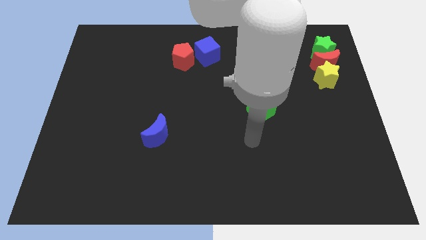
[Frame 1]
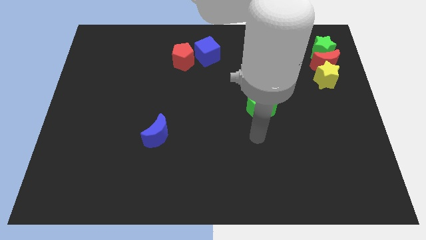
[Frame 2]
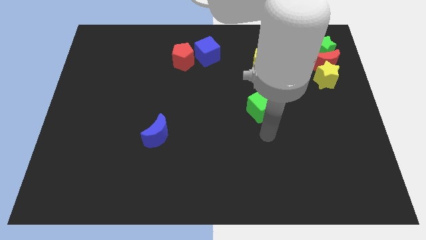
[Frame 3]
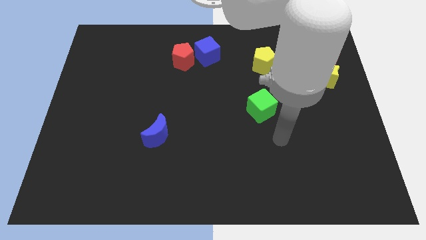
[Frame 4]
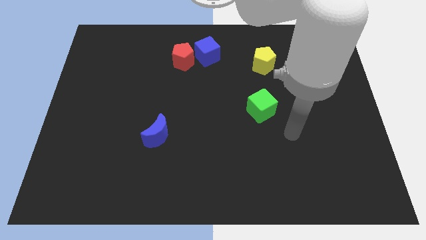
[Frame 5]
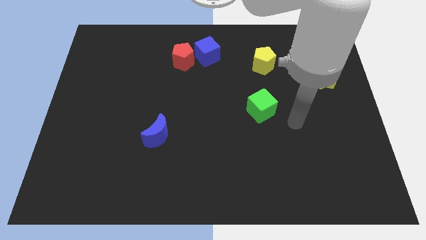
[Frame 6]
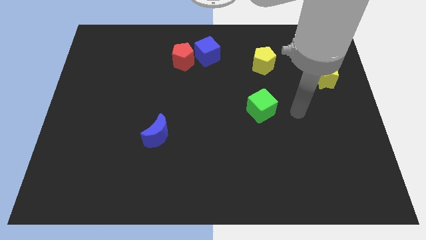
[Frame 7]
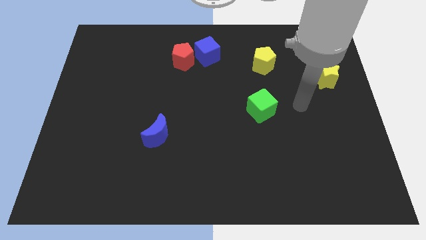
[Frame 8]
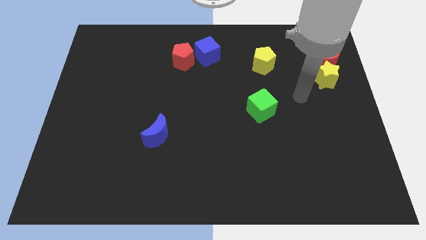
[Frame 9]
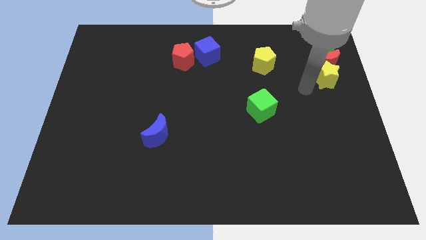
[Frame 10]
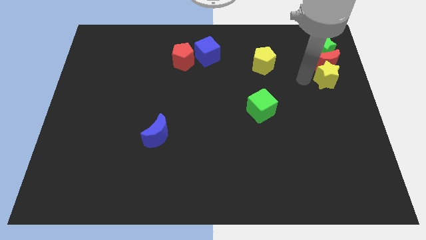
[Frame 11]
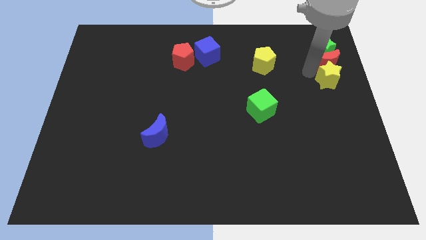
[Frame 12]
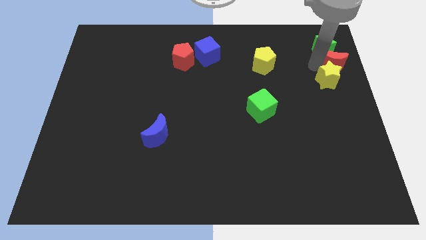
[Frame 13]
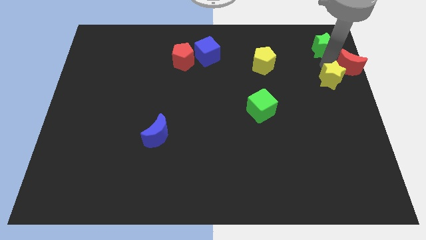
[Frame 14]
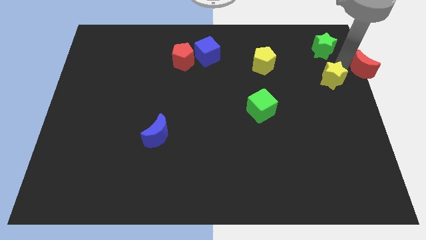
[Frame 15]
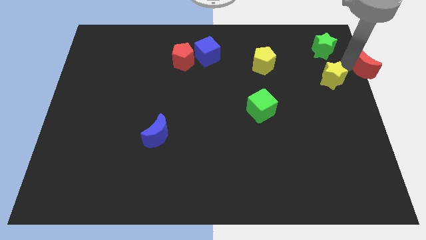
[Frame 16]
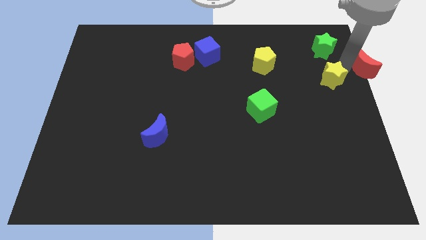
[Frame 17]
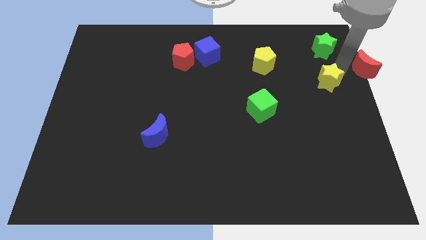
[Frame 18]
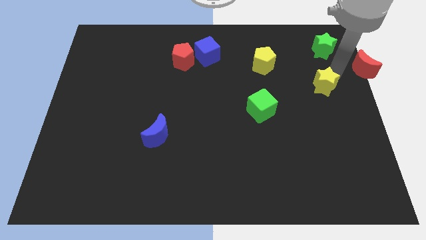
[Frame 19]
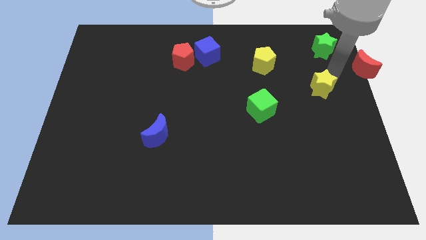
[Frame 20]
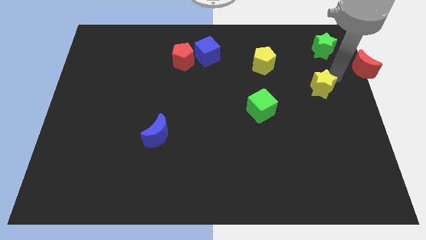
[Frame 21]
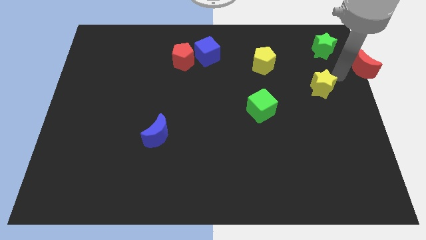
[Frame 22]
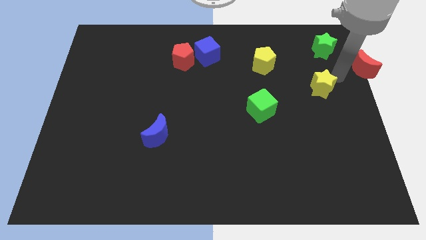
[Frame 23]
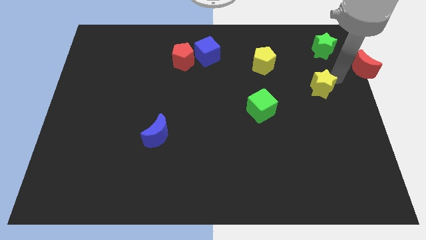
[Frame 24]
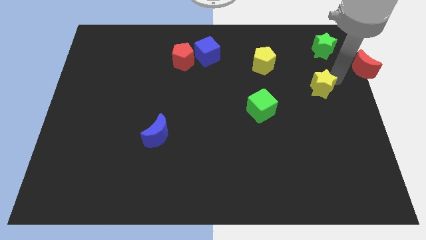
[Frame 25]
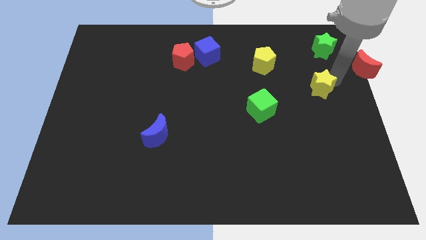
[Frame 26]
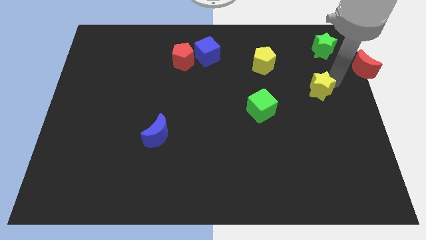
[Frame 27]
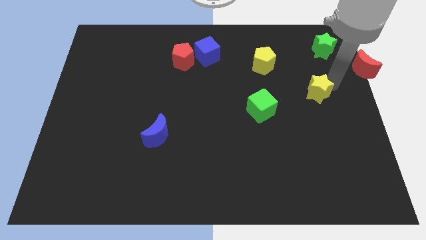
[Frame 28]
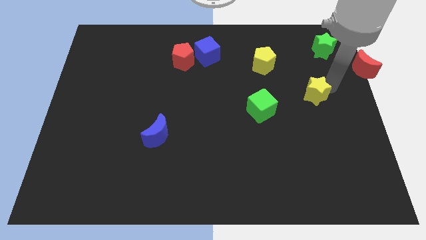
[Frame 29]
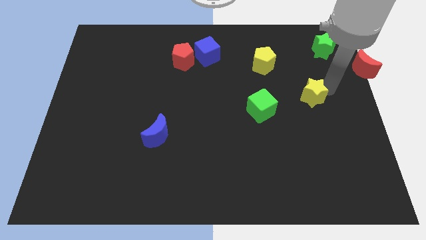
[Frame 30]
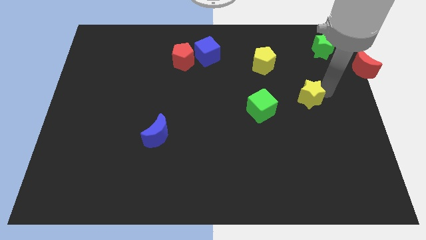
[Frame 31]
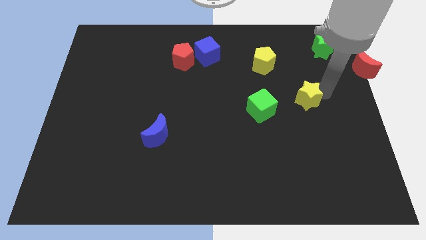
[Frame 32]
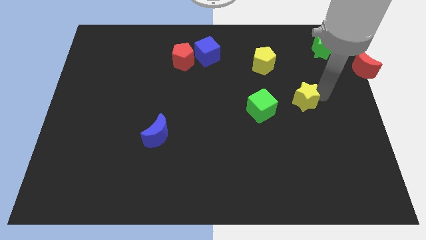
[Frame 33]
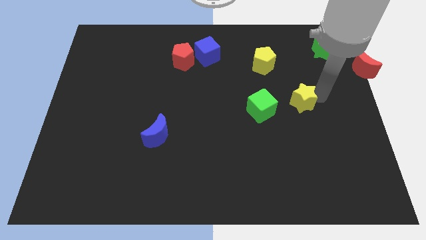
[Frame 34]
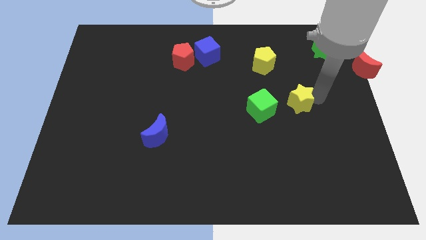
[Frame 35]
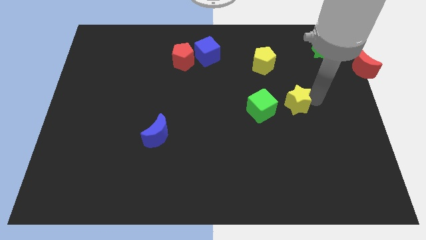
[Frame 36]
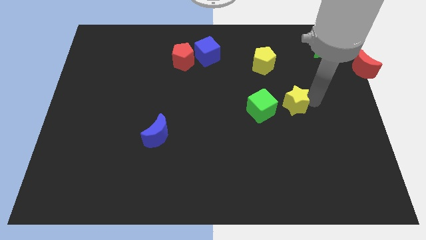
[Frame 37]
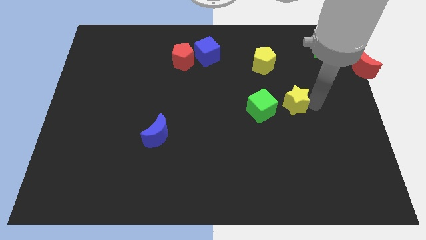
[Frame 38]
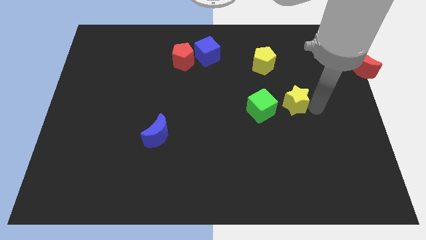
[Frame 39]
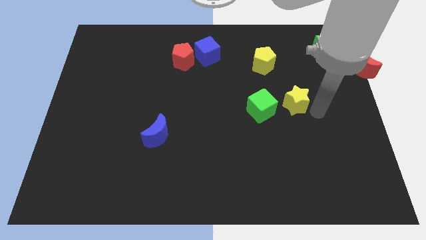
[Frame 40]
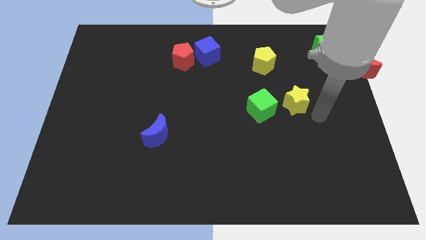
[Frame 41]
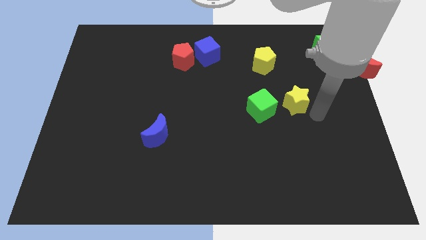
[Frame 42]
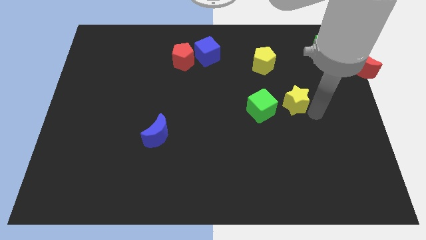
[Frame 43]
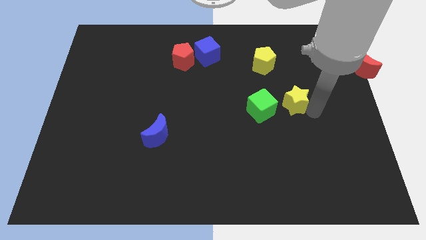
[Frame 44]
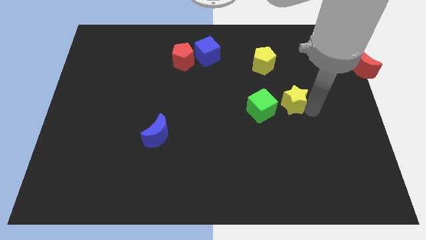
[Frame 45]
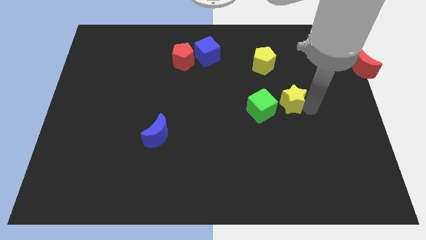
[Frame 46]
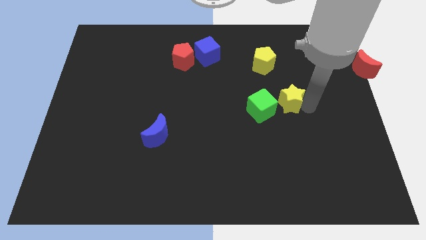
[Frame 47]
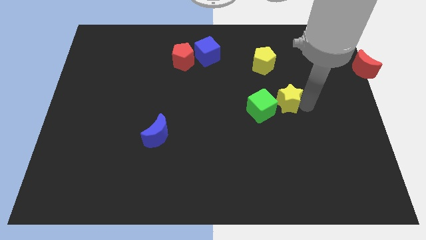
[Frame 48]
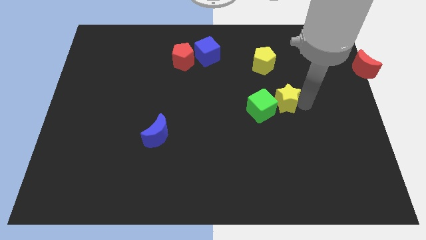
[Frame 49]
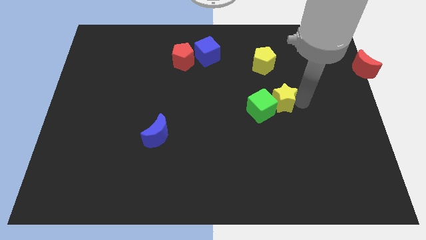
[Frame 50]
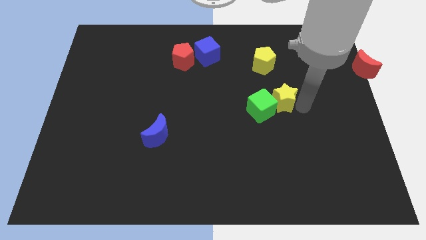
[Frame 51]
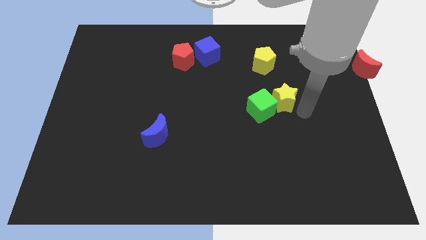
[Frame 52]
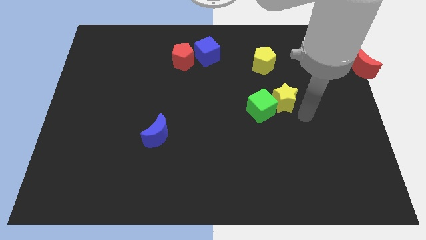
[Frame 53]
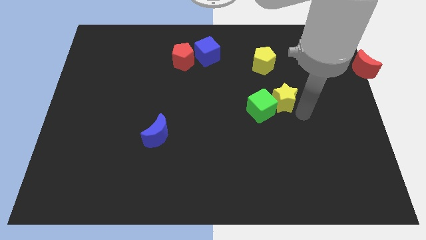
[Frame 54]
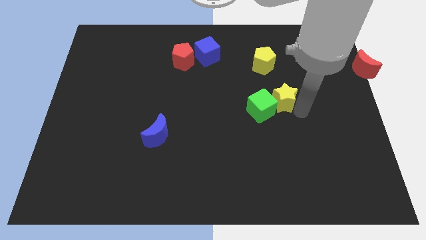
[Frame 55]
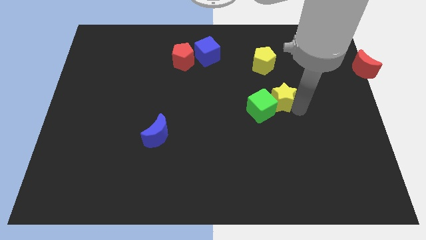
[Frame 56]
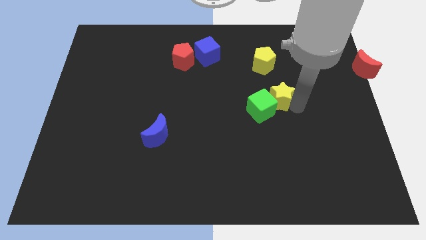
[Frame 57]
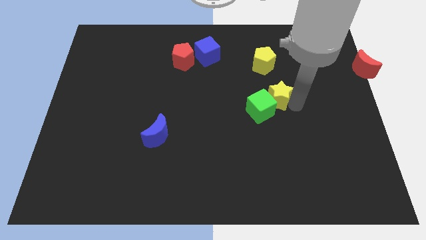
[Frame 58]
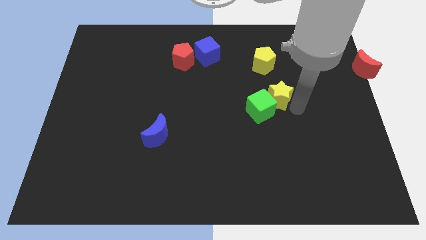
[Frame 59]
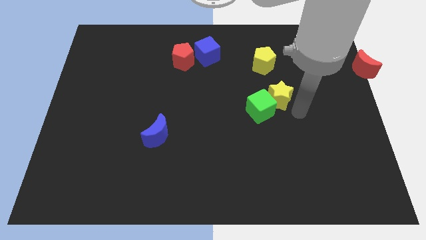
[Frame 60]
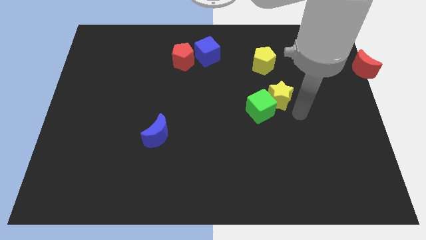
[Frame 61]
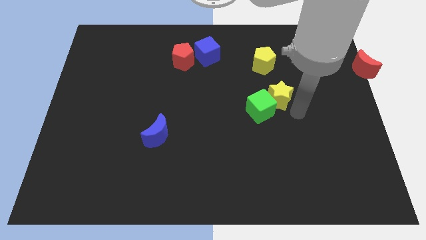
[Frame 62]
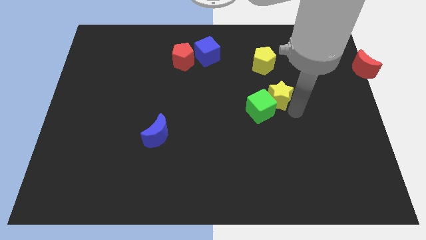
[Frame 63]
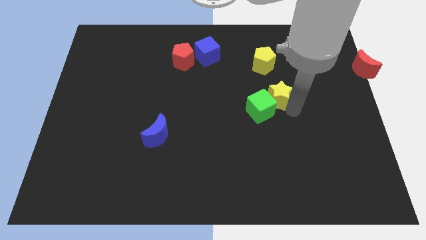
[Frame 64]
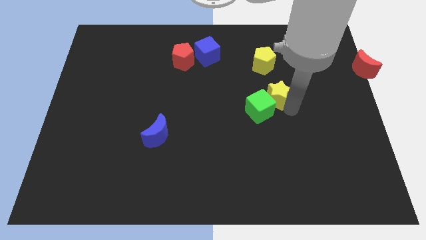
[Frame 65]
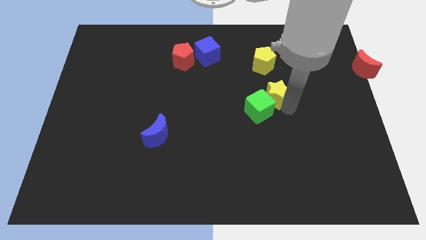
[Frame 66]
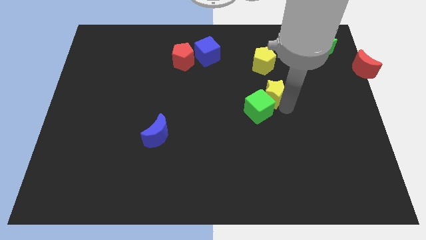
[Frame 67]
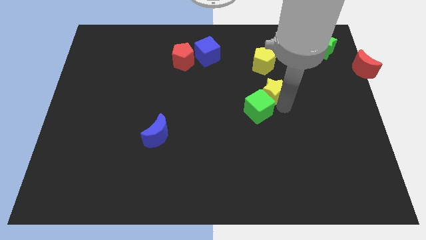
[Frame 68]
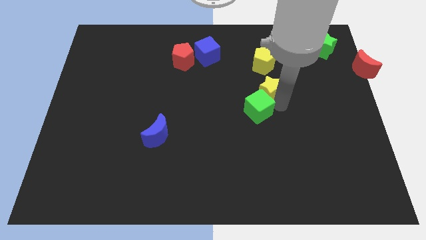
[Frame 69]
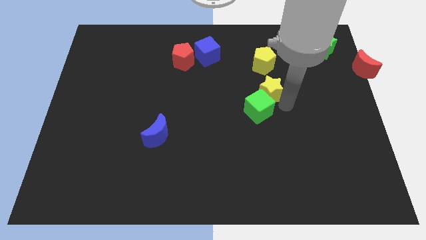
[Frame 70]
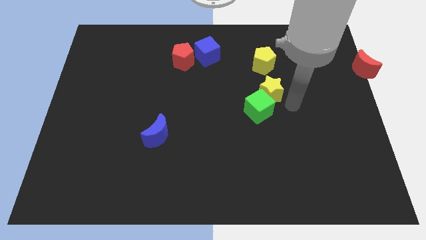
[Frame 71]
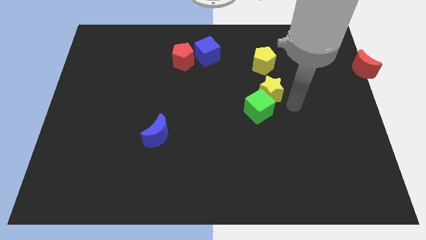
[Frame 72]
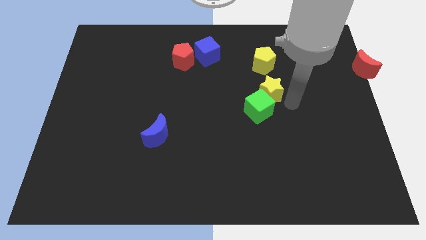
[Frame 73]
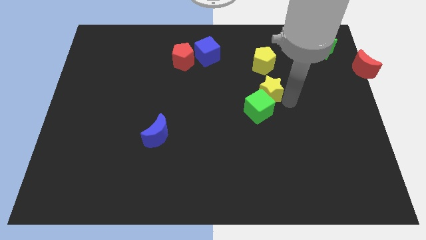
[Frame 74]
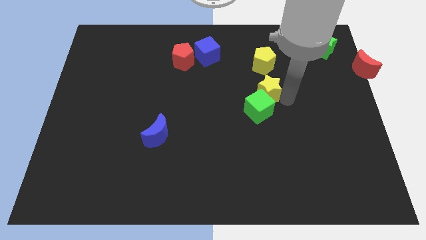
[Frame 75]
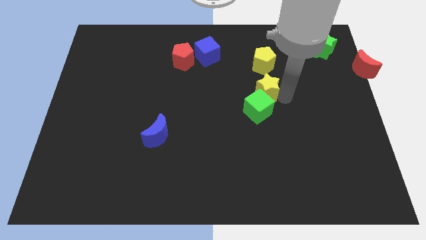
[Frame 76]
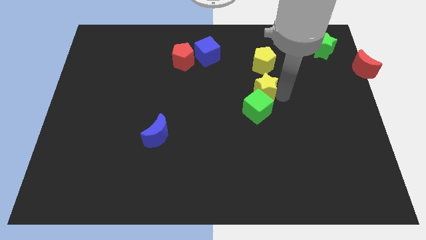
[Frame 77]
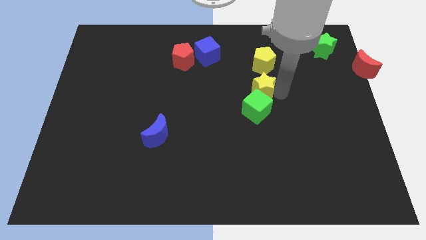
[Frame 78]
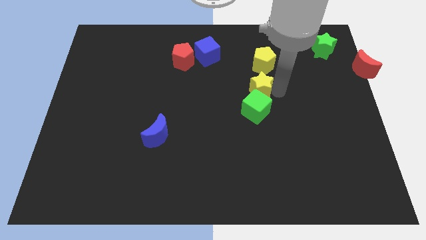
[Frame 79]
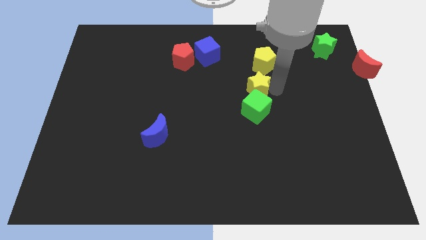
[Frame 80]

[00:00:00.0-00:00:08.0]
put the yellow star diagonally down and to the left of the yellow pentagon
